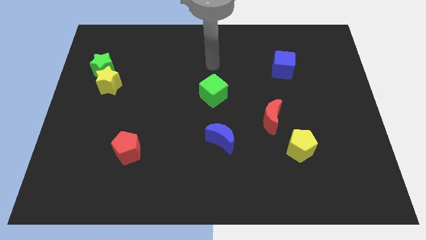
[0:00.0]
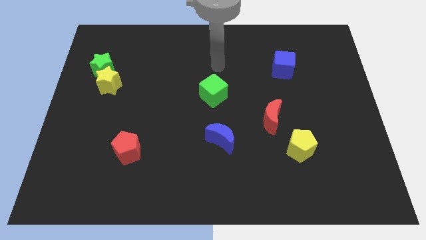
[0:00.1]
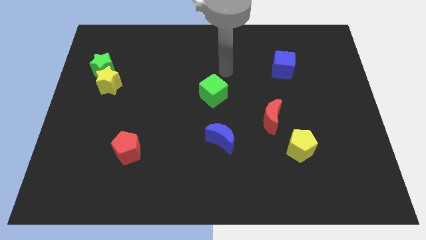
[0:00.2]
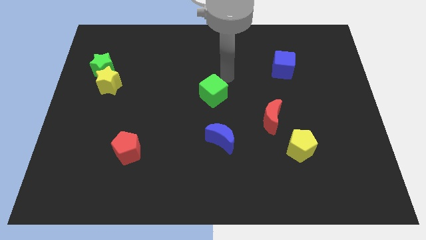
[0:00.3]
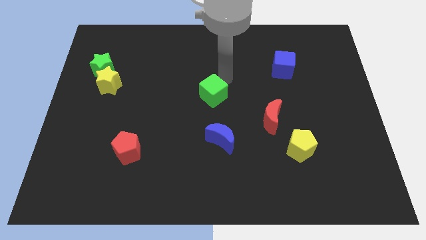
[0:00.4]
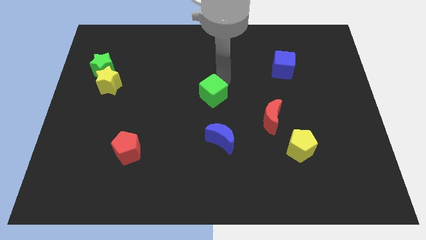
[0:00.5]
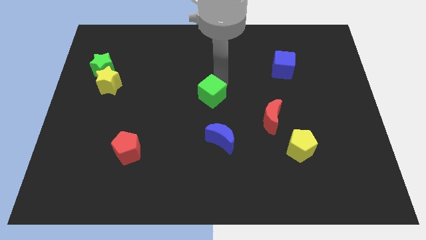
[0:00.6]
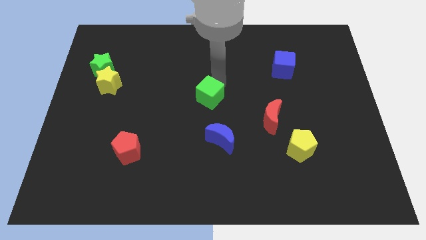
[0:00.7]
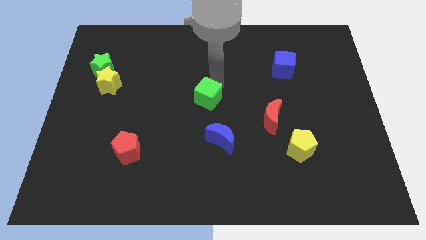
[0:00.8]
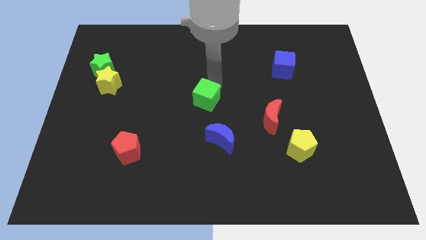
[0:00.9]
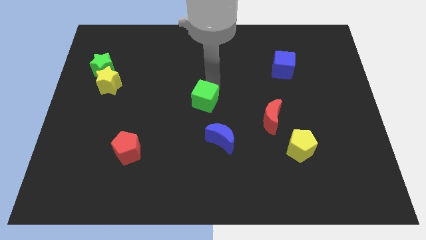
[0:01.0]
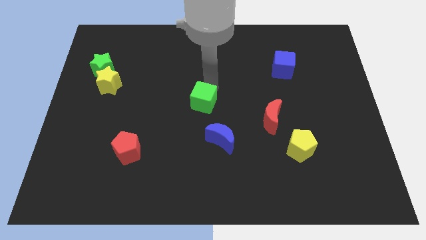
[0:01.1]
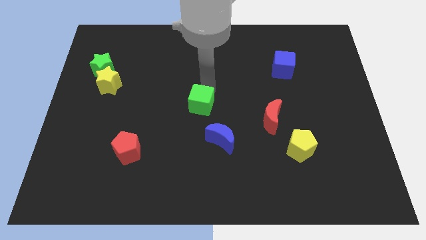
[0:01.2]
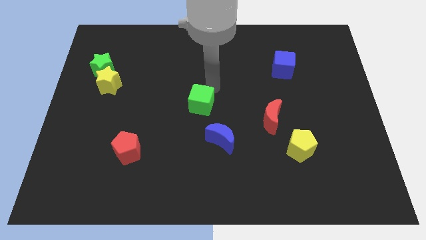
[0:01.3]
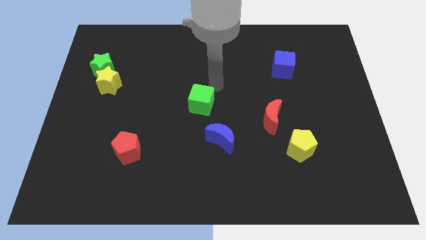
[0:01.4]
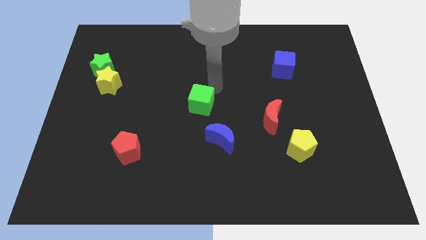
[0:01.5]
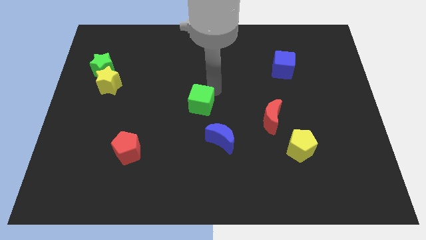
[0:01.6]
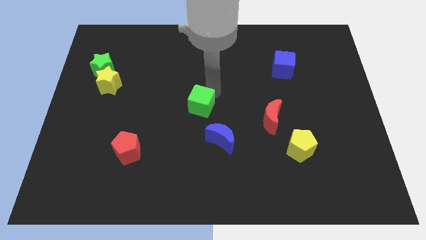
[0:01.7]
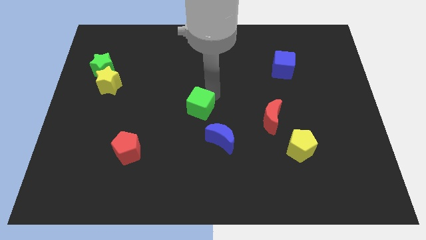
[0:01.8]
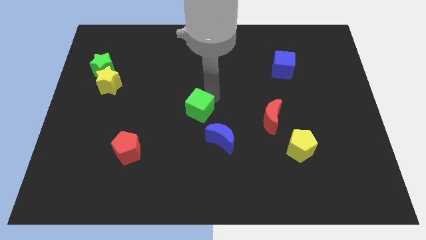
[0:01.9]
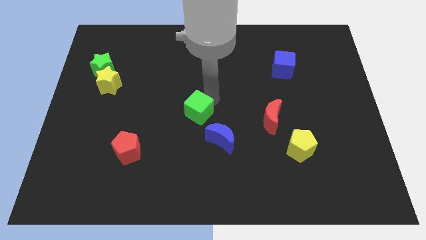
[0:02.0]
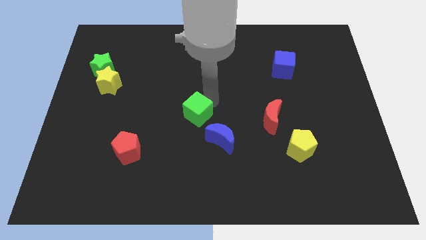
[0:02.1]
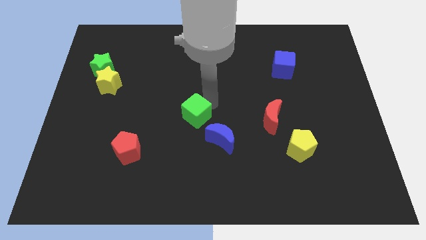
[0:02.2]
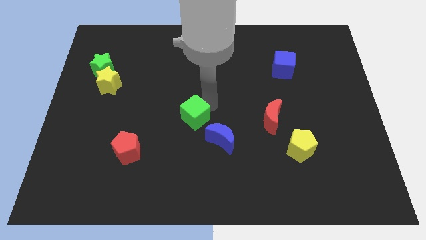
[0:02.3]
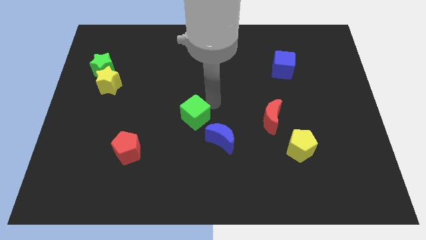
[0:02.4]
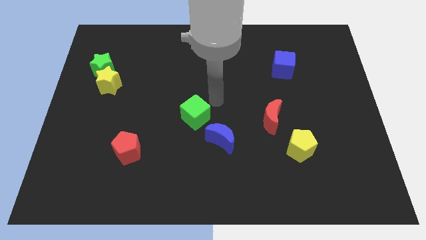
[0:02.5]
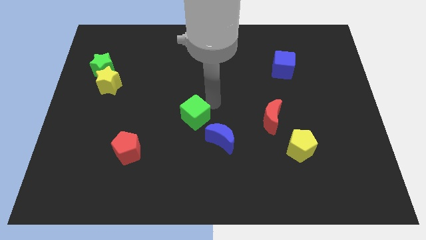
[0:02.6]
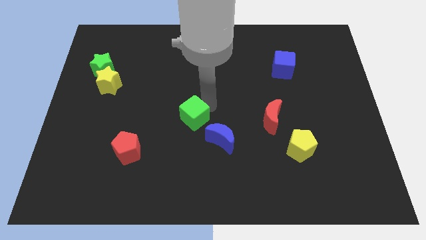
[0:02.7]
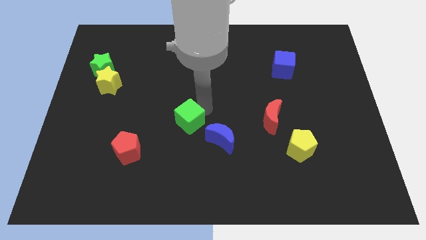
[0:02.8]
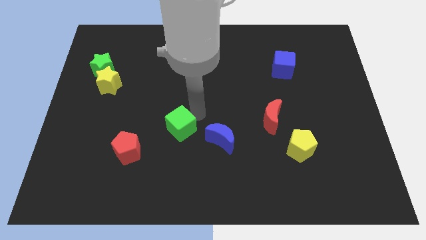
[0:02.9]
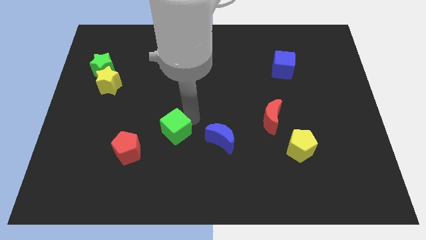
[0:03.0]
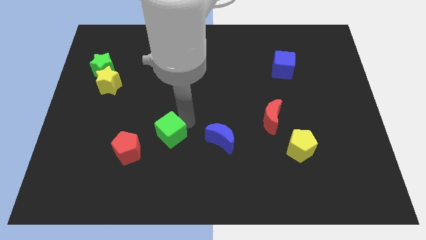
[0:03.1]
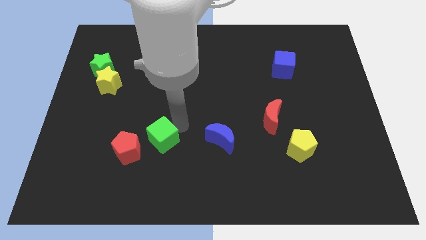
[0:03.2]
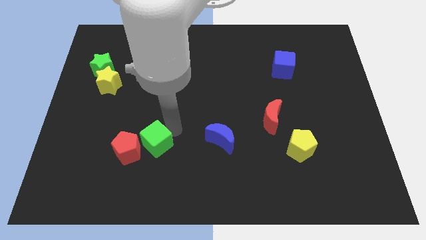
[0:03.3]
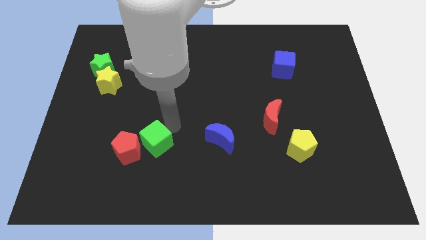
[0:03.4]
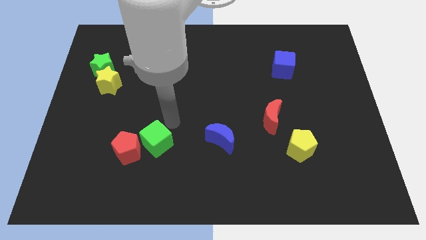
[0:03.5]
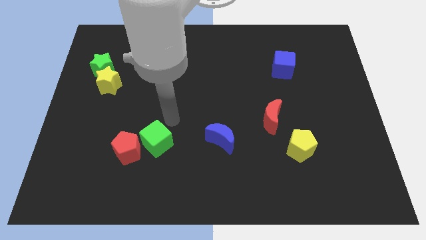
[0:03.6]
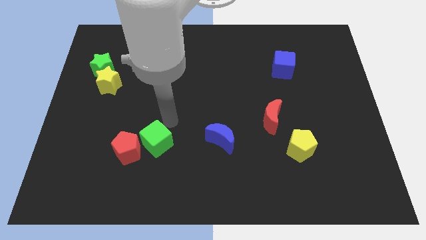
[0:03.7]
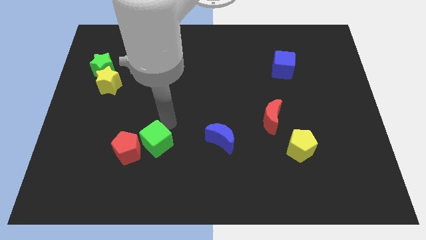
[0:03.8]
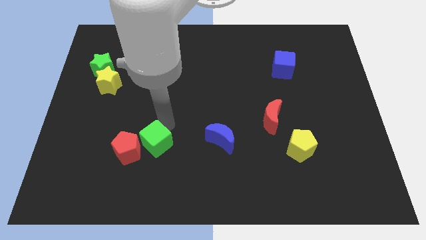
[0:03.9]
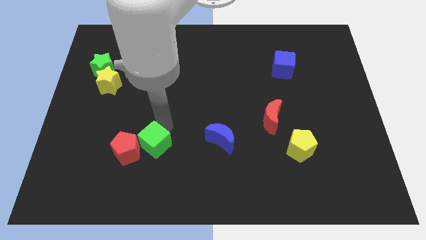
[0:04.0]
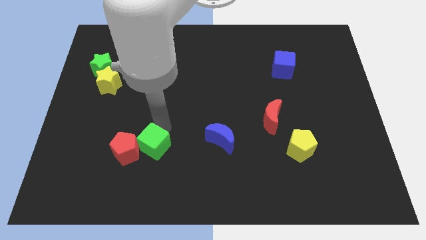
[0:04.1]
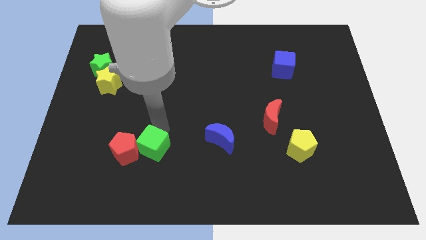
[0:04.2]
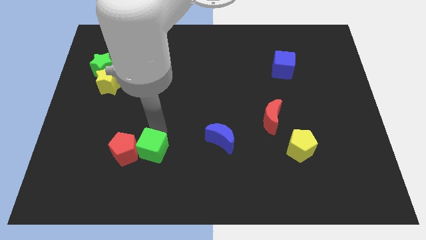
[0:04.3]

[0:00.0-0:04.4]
push the green cube down and then left

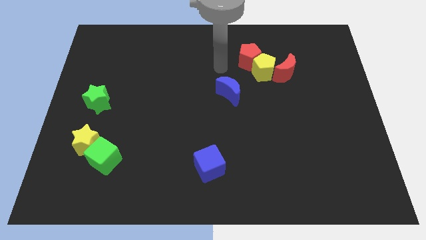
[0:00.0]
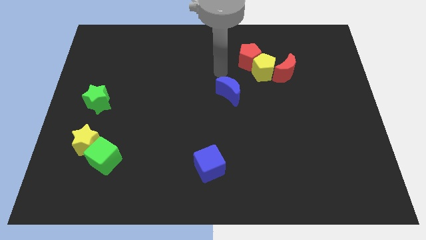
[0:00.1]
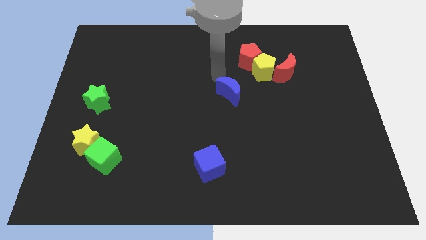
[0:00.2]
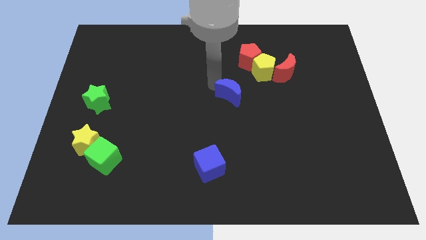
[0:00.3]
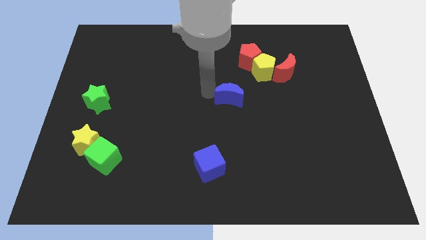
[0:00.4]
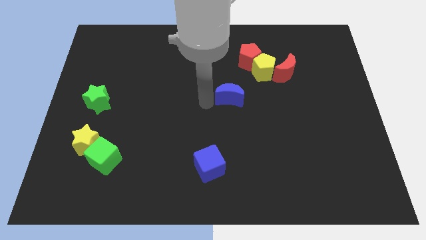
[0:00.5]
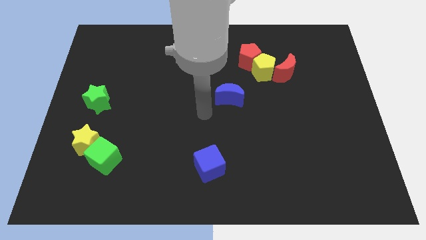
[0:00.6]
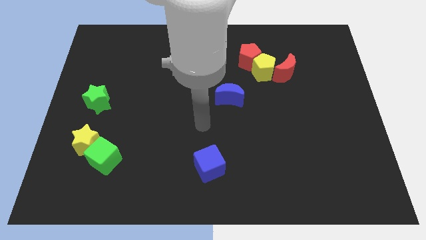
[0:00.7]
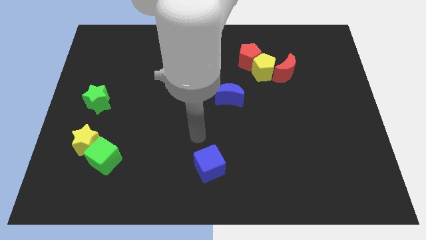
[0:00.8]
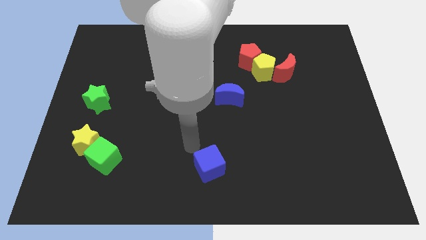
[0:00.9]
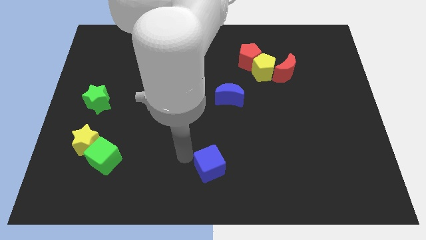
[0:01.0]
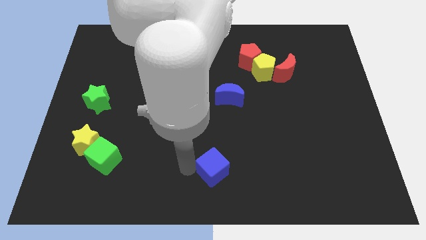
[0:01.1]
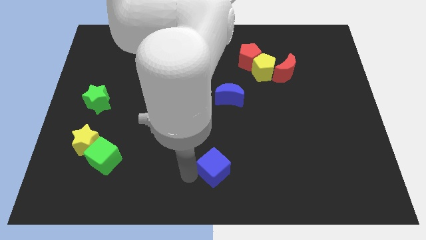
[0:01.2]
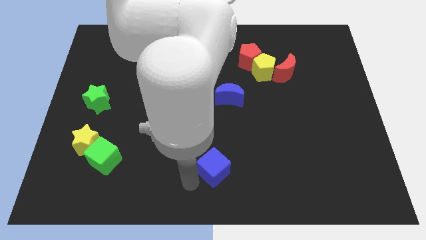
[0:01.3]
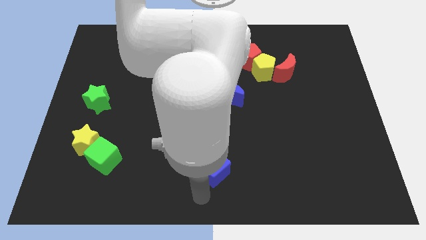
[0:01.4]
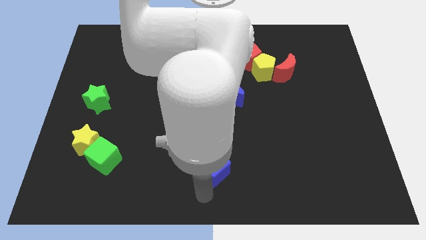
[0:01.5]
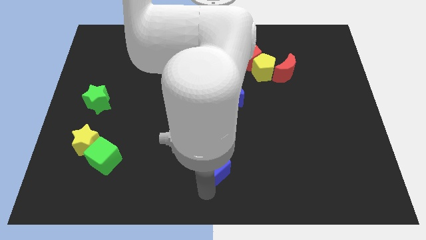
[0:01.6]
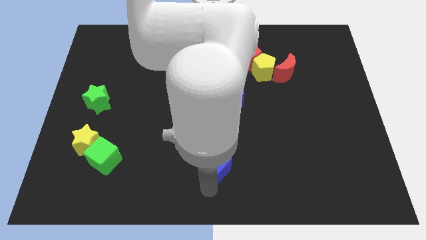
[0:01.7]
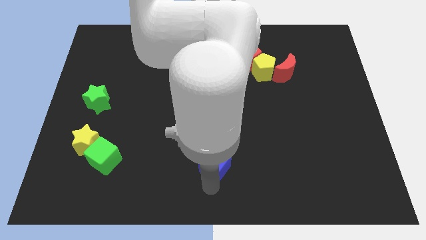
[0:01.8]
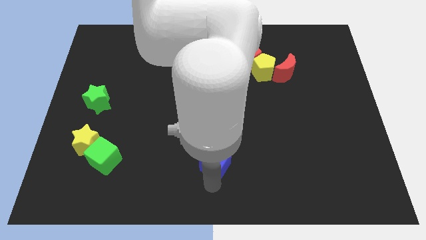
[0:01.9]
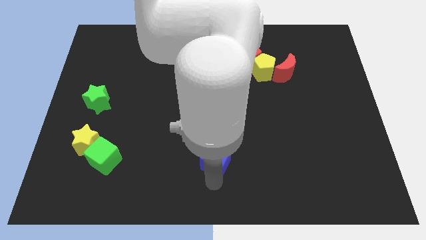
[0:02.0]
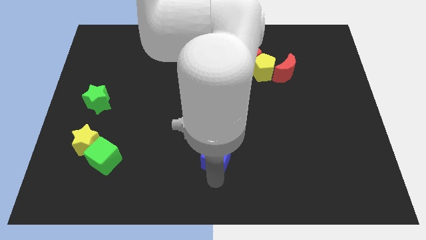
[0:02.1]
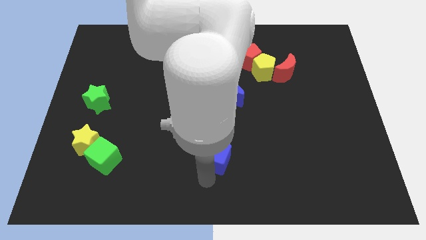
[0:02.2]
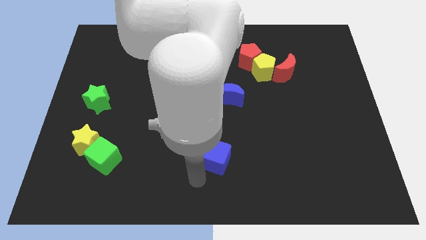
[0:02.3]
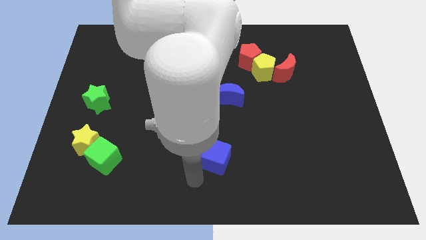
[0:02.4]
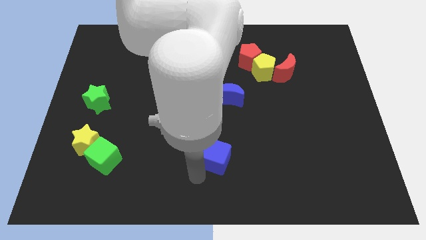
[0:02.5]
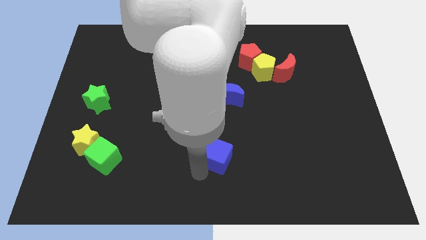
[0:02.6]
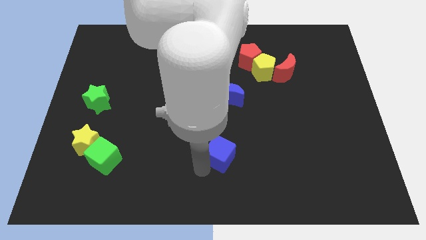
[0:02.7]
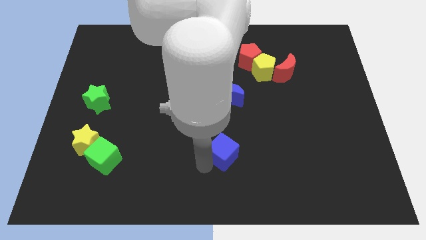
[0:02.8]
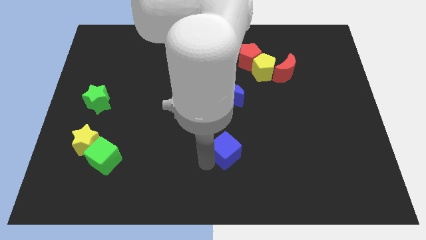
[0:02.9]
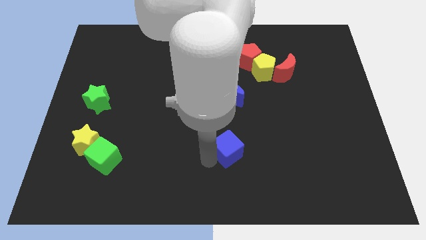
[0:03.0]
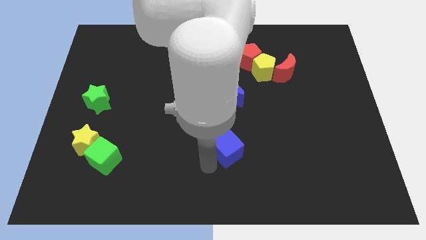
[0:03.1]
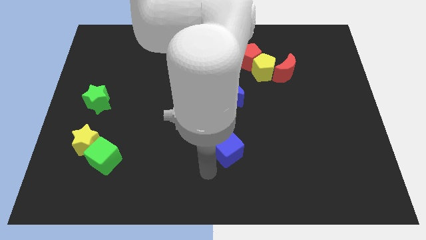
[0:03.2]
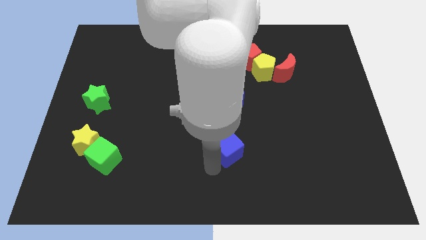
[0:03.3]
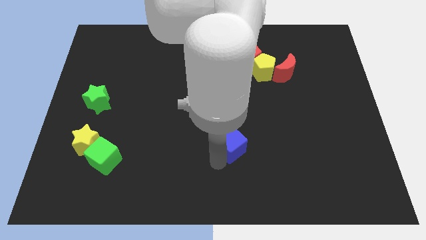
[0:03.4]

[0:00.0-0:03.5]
move the blue cube somewhat up and right diagonally

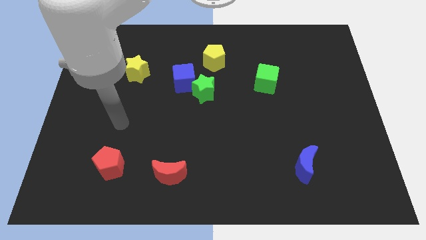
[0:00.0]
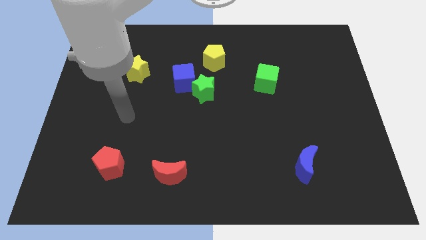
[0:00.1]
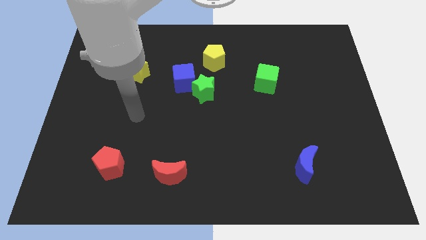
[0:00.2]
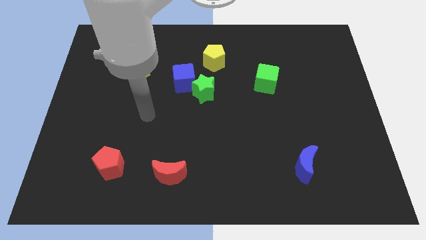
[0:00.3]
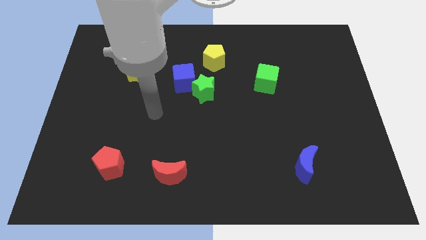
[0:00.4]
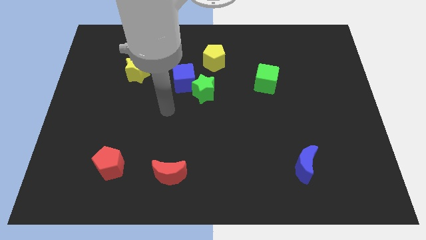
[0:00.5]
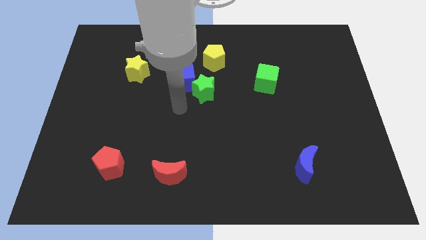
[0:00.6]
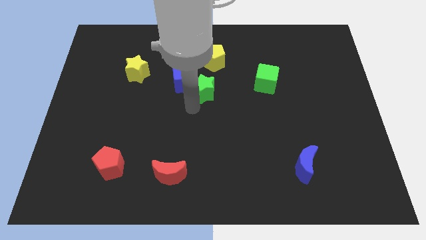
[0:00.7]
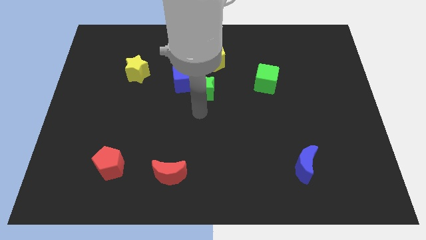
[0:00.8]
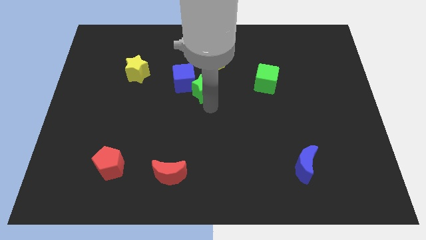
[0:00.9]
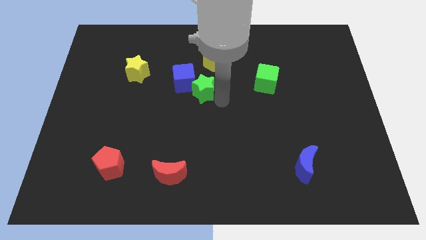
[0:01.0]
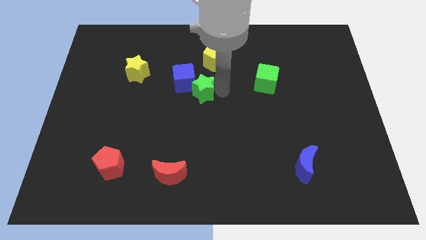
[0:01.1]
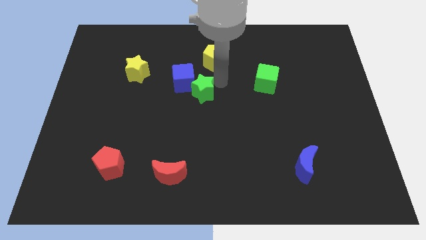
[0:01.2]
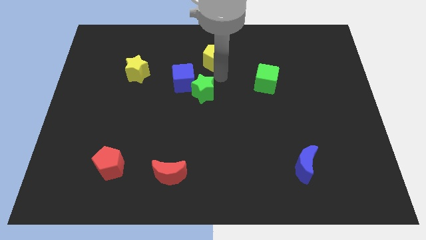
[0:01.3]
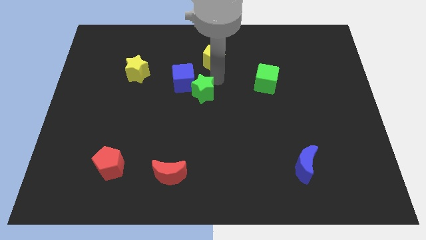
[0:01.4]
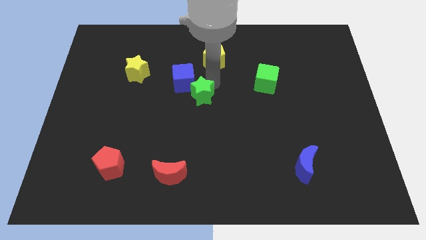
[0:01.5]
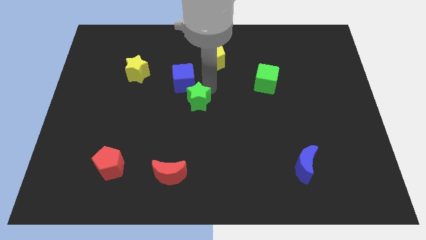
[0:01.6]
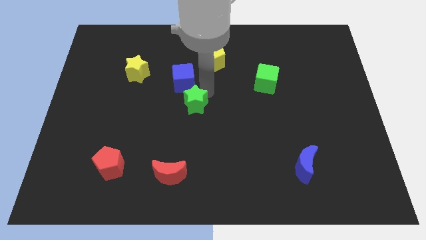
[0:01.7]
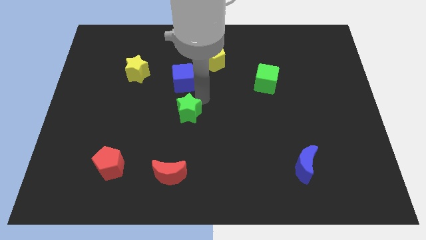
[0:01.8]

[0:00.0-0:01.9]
push the green star downwards and left a bit
